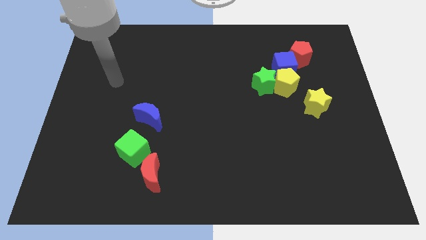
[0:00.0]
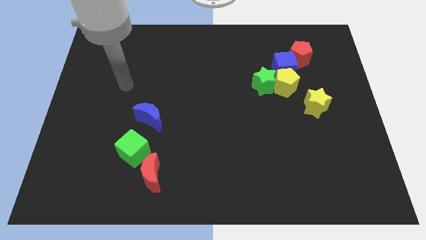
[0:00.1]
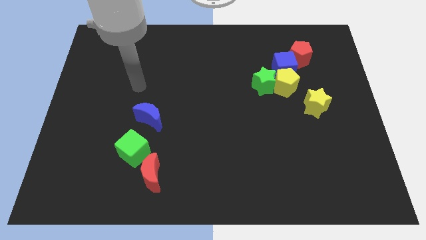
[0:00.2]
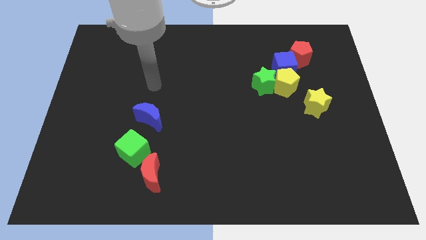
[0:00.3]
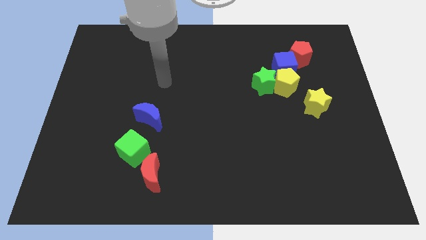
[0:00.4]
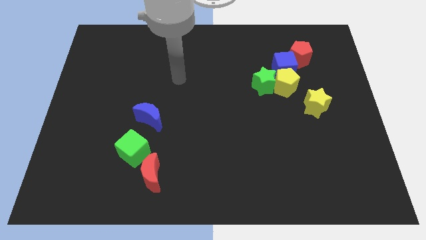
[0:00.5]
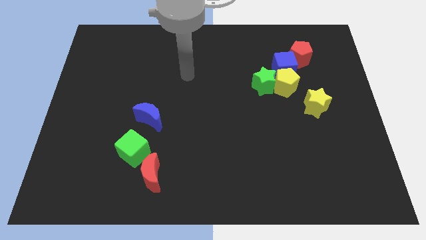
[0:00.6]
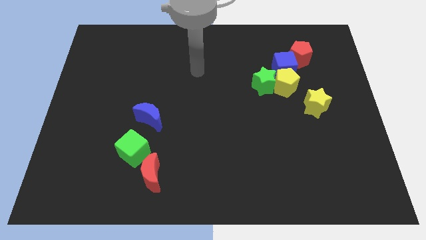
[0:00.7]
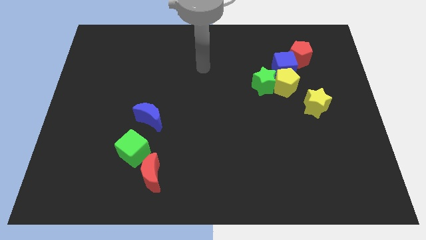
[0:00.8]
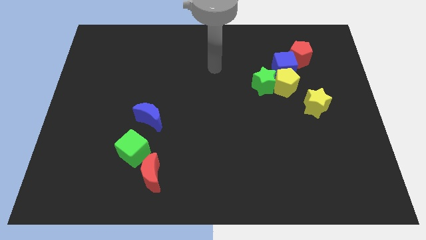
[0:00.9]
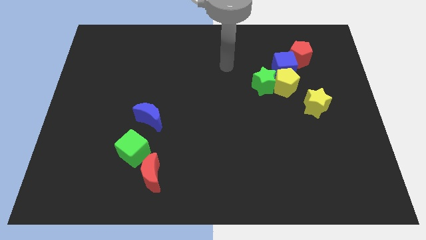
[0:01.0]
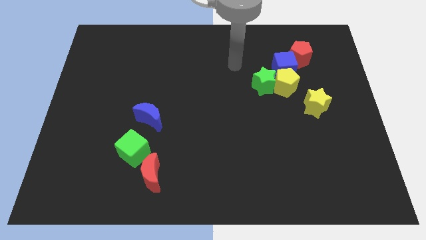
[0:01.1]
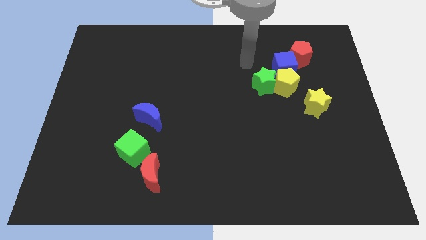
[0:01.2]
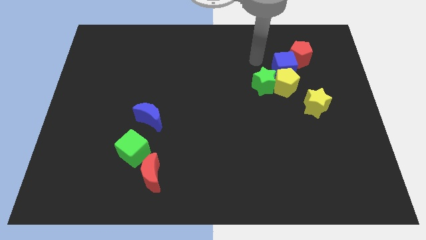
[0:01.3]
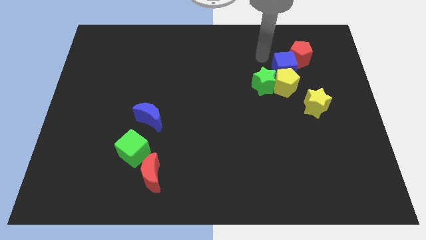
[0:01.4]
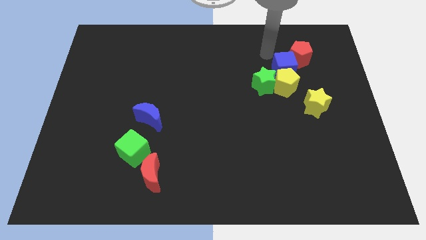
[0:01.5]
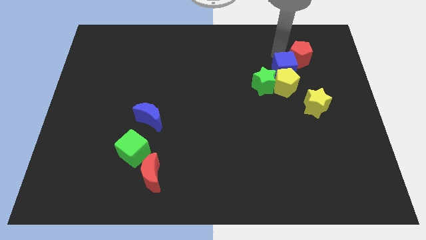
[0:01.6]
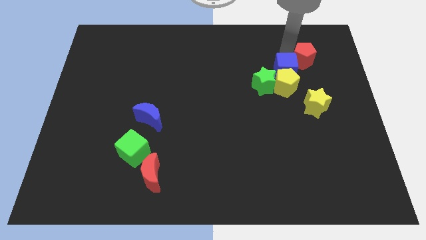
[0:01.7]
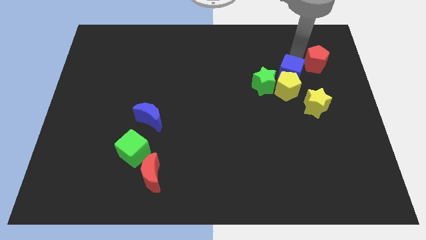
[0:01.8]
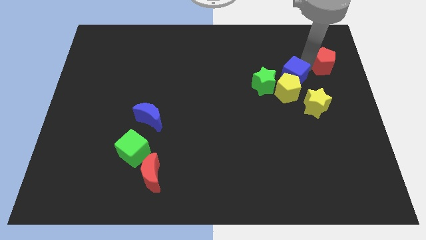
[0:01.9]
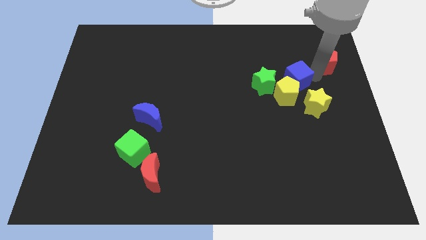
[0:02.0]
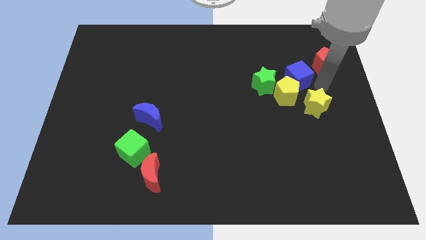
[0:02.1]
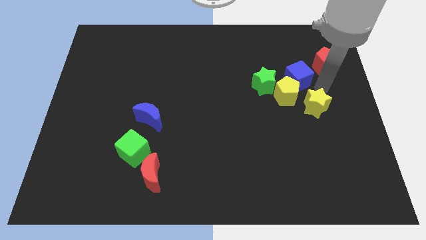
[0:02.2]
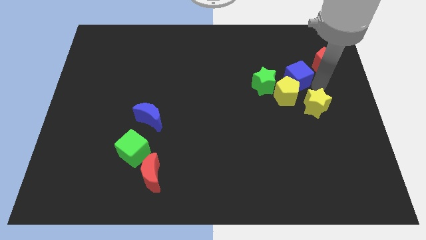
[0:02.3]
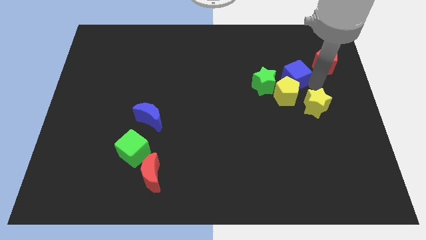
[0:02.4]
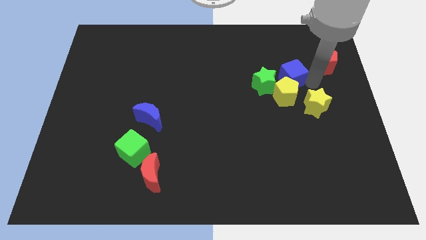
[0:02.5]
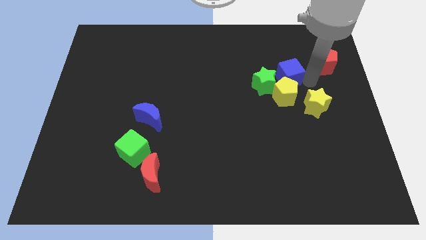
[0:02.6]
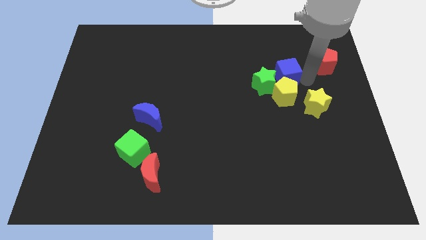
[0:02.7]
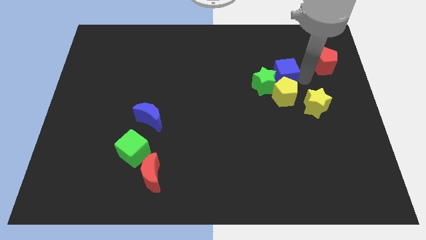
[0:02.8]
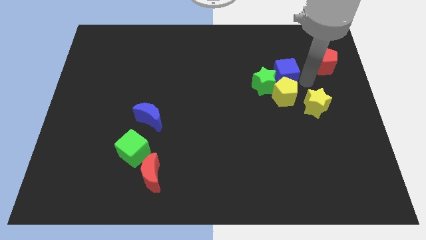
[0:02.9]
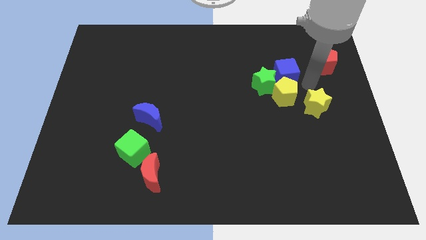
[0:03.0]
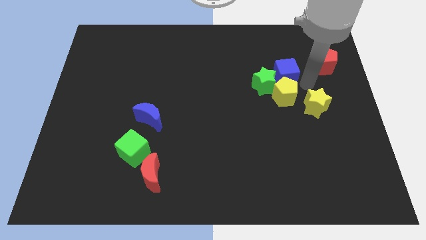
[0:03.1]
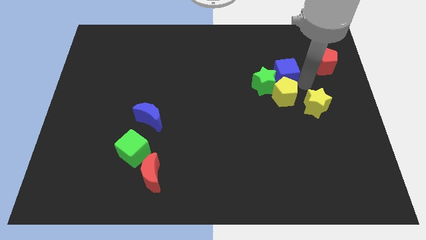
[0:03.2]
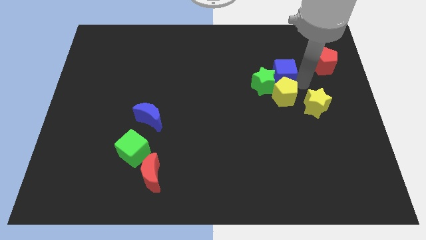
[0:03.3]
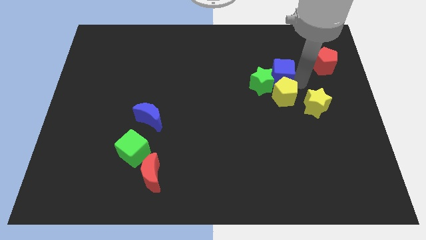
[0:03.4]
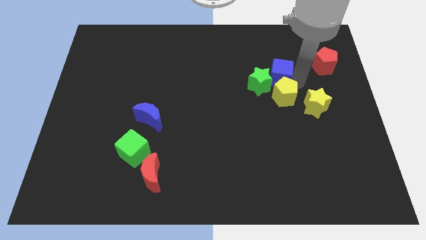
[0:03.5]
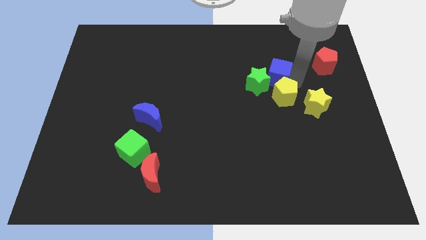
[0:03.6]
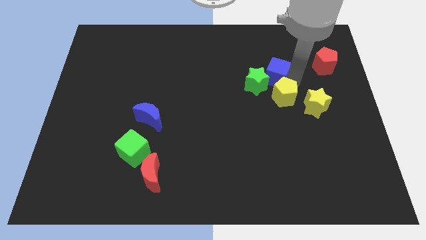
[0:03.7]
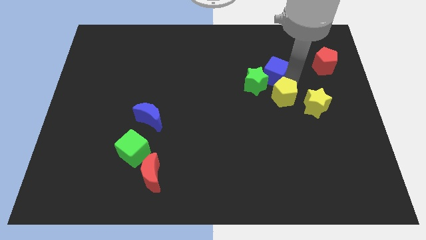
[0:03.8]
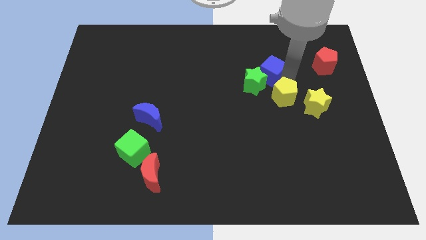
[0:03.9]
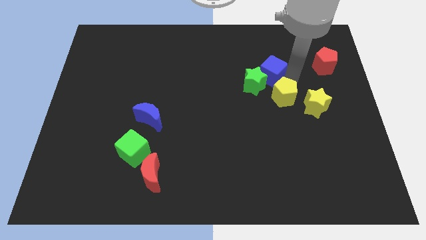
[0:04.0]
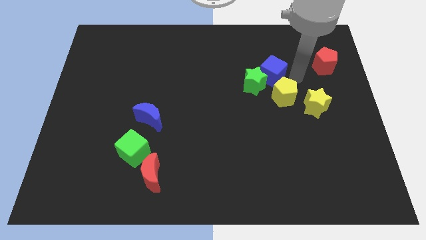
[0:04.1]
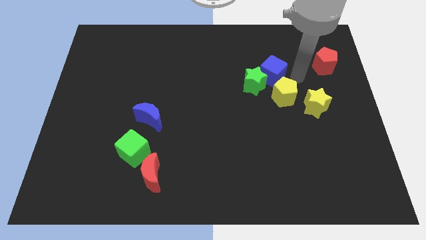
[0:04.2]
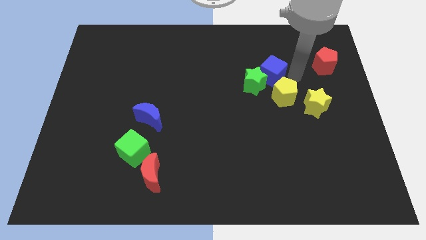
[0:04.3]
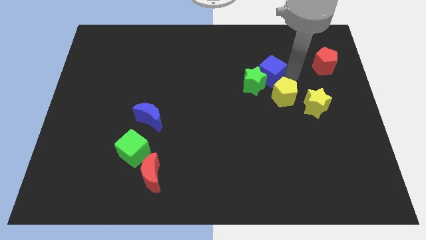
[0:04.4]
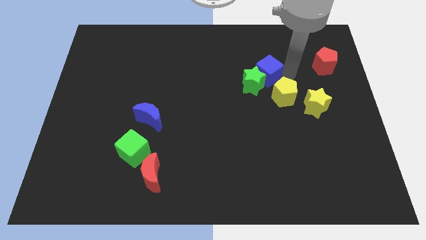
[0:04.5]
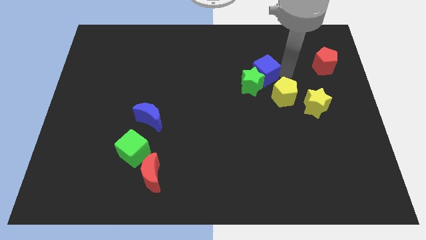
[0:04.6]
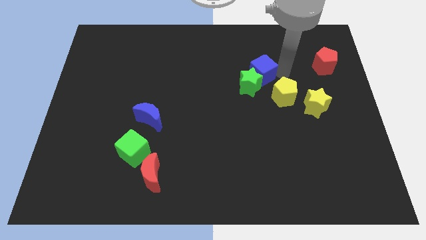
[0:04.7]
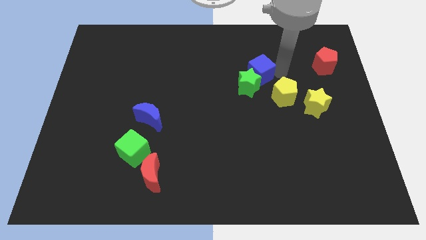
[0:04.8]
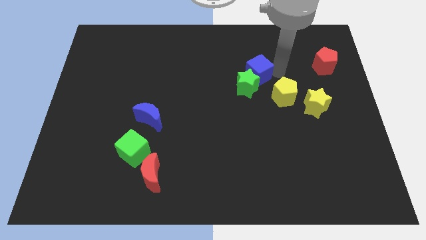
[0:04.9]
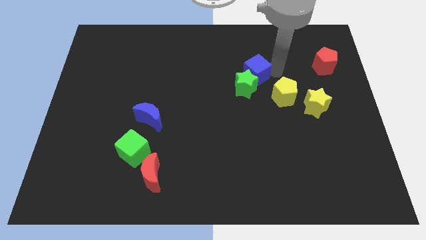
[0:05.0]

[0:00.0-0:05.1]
slightly slide the blue cube left

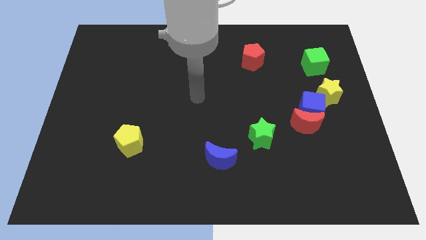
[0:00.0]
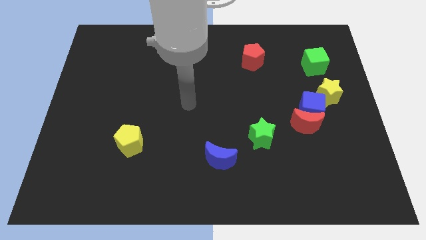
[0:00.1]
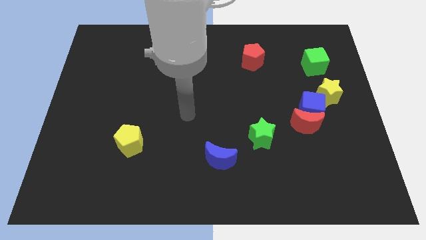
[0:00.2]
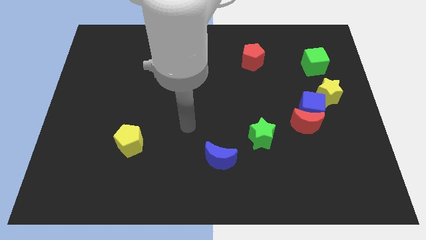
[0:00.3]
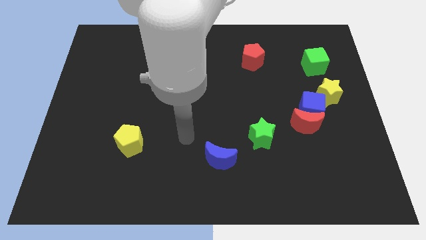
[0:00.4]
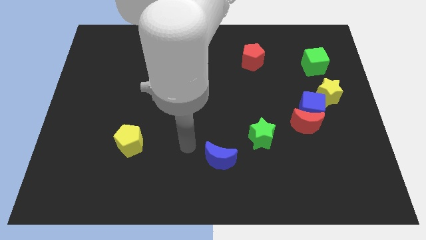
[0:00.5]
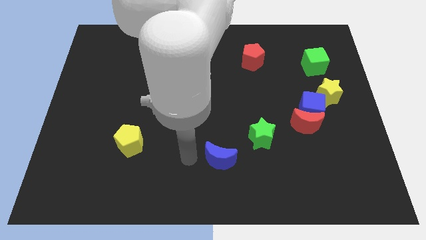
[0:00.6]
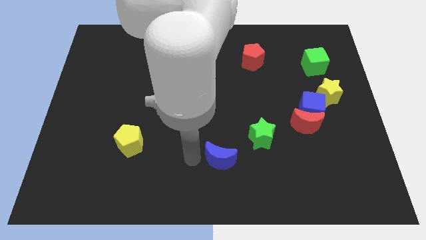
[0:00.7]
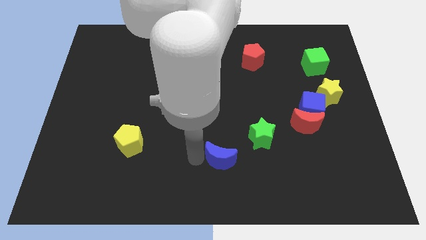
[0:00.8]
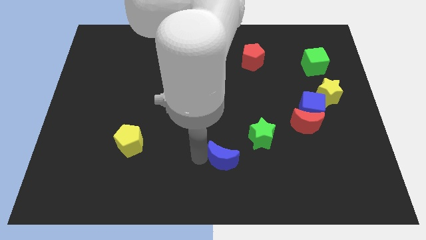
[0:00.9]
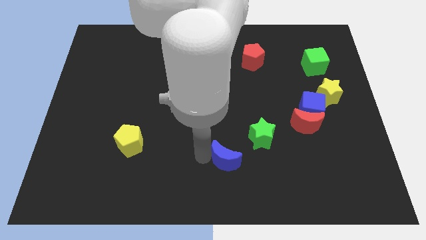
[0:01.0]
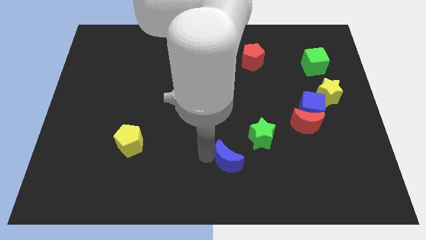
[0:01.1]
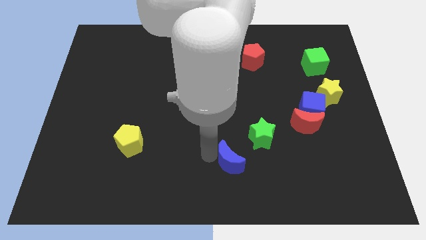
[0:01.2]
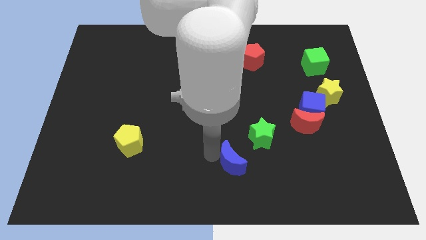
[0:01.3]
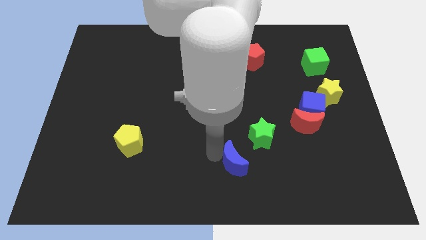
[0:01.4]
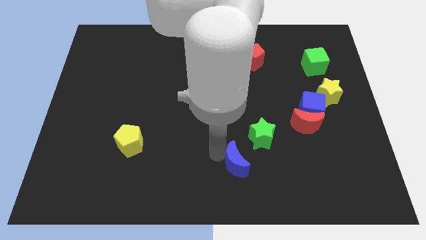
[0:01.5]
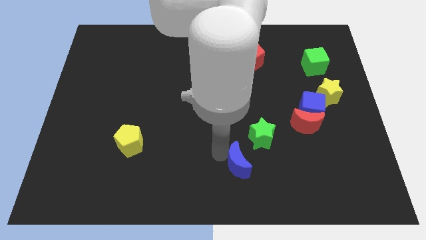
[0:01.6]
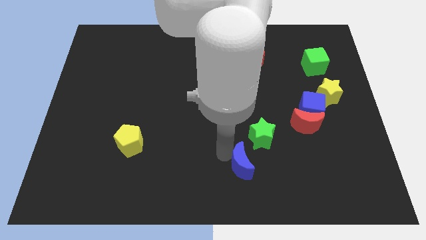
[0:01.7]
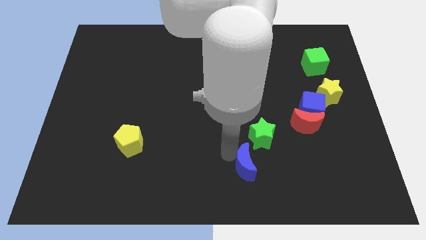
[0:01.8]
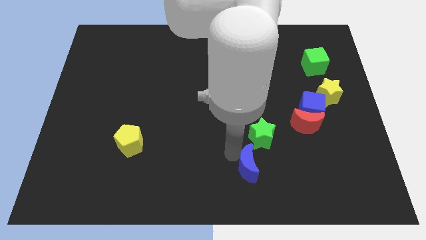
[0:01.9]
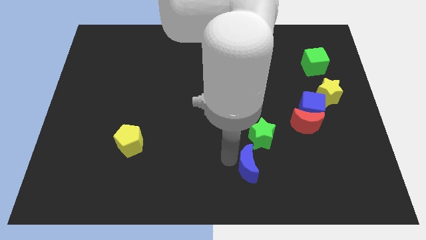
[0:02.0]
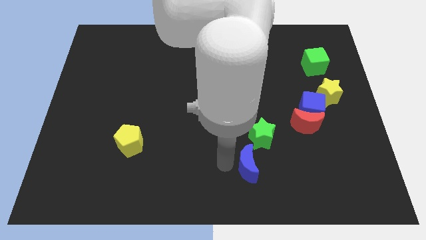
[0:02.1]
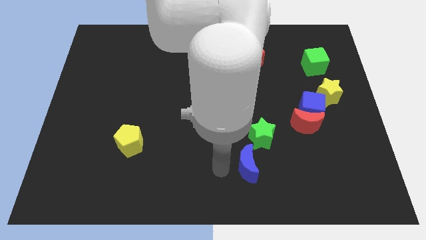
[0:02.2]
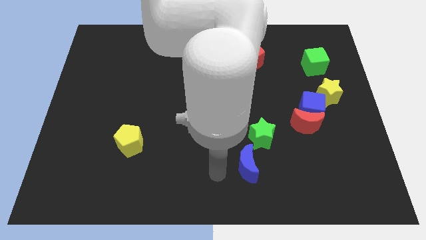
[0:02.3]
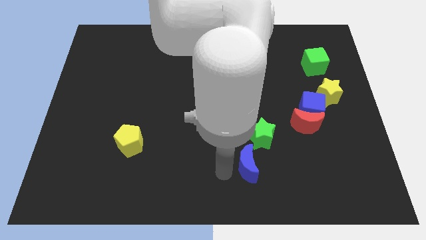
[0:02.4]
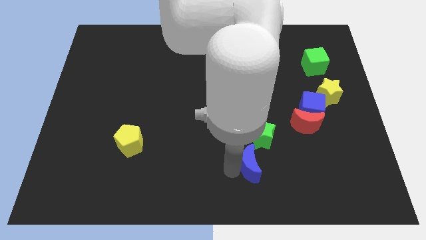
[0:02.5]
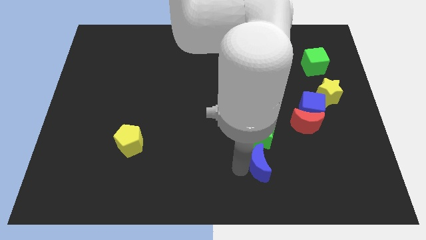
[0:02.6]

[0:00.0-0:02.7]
slide the blue moon to the right somewhat
